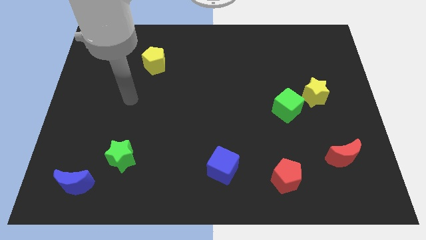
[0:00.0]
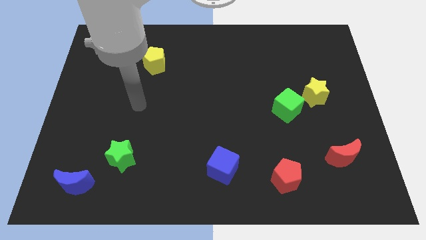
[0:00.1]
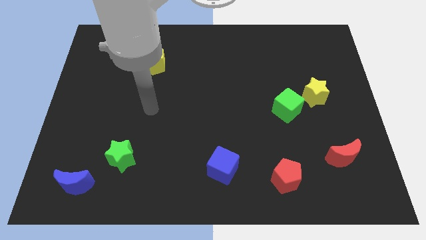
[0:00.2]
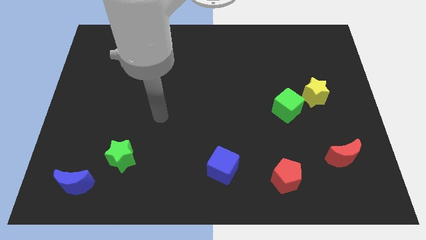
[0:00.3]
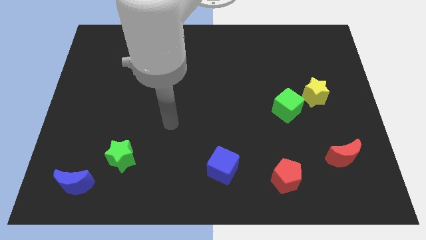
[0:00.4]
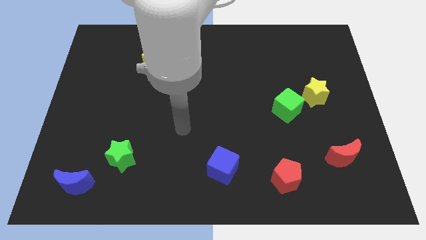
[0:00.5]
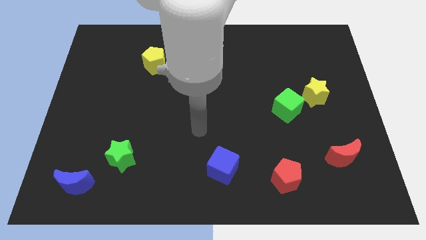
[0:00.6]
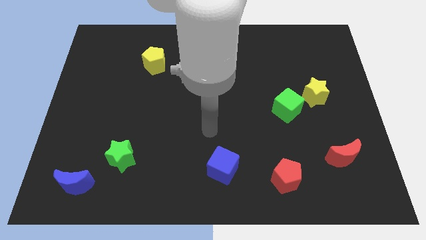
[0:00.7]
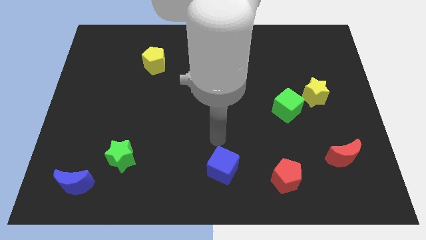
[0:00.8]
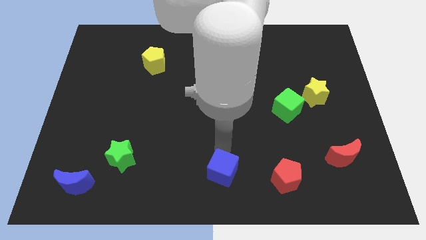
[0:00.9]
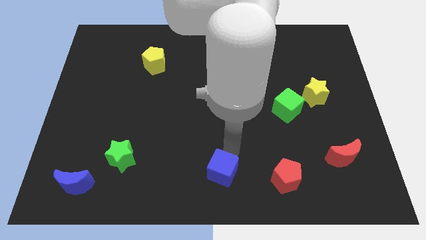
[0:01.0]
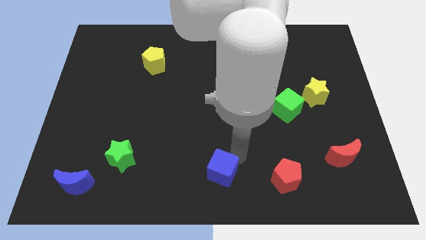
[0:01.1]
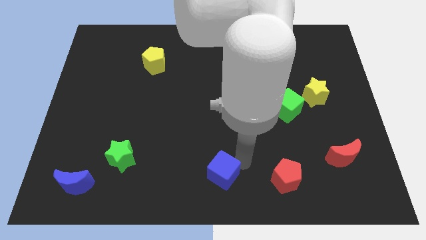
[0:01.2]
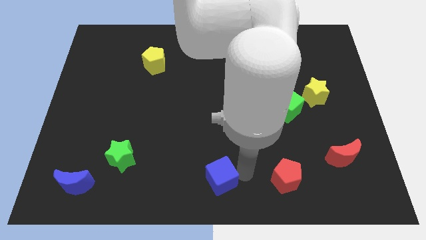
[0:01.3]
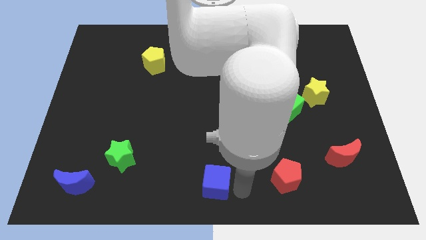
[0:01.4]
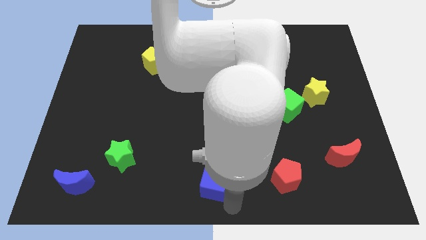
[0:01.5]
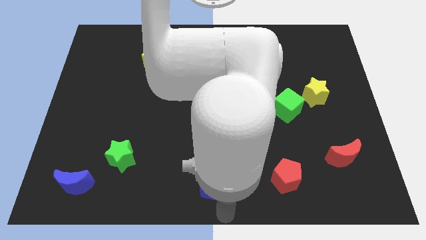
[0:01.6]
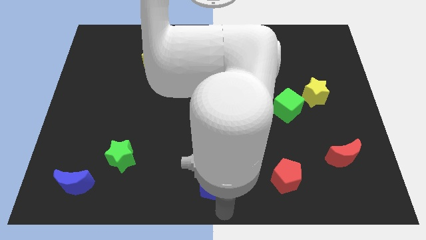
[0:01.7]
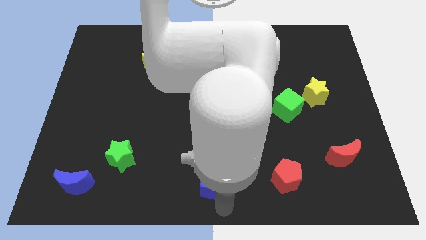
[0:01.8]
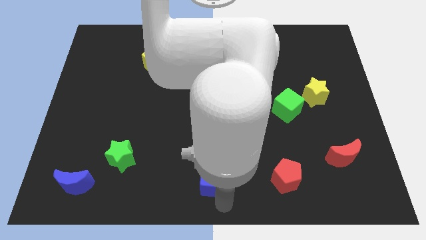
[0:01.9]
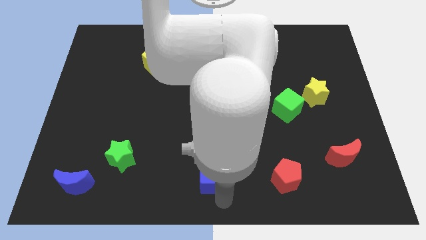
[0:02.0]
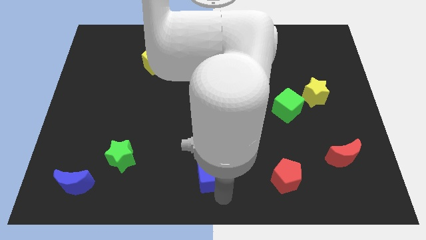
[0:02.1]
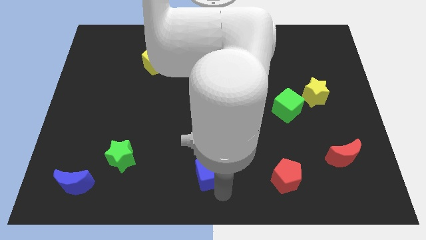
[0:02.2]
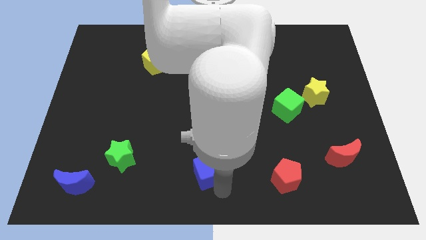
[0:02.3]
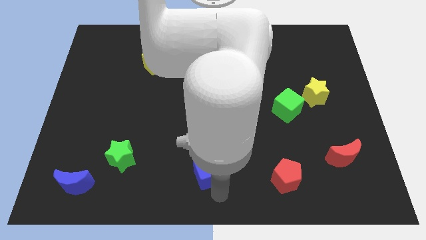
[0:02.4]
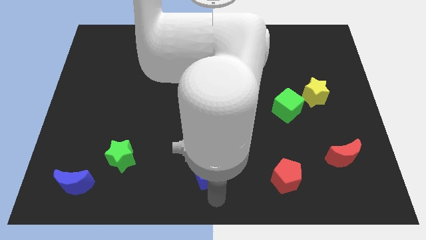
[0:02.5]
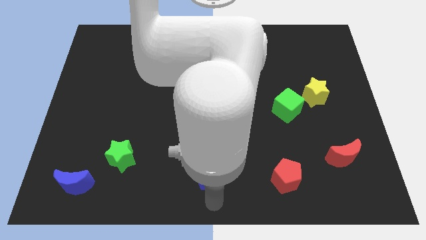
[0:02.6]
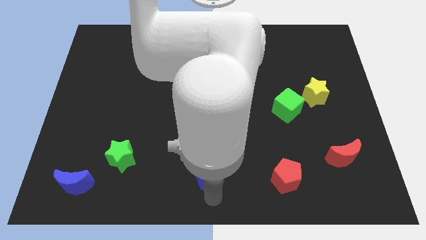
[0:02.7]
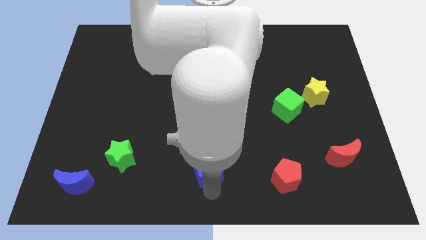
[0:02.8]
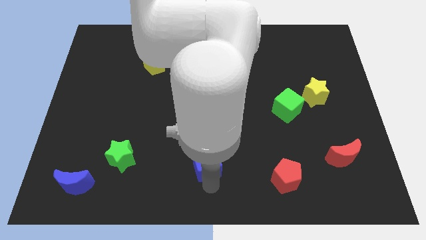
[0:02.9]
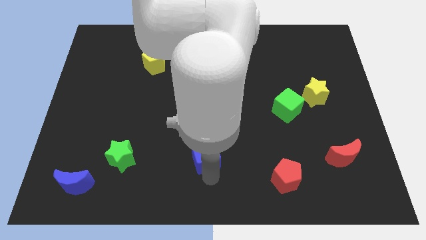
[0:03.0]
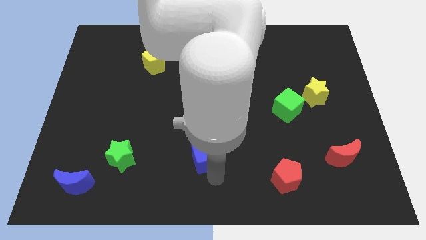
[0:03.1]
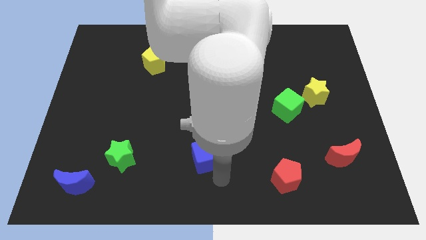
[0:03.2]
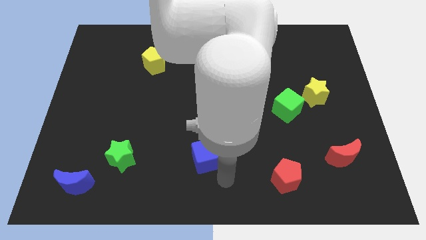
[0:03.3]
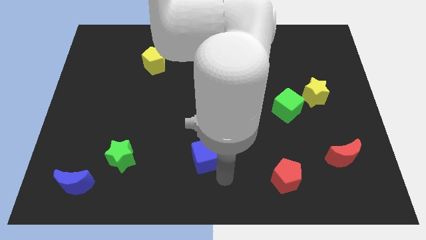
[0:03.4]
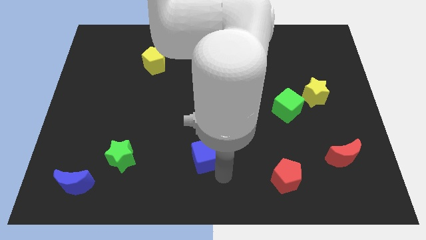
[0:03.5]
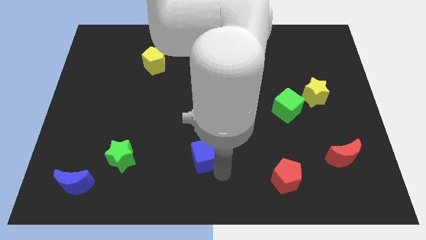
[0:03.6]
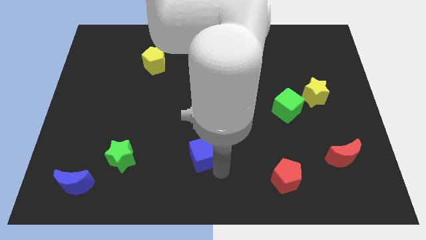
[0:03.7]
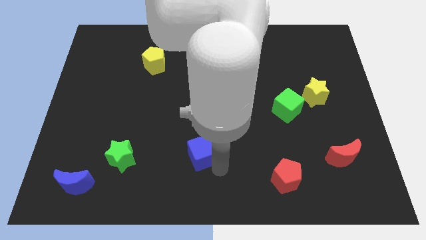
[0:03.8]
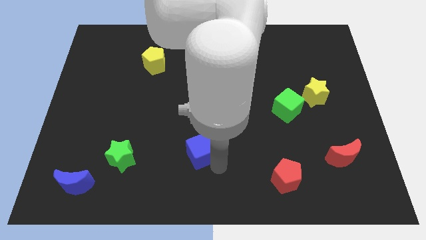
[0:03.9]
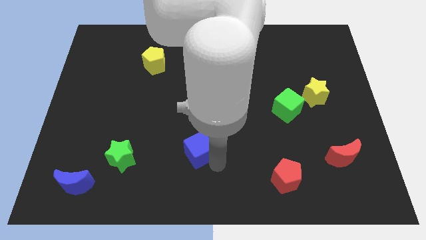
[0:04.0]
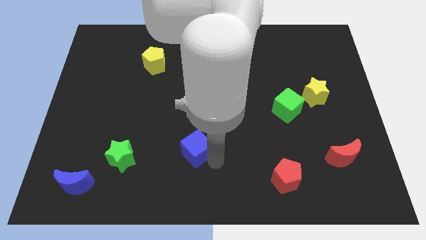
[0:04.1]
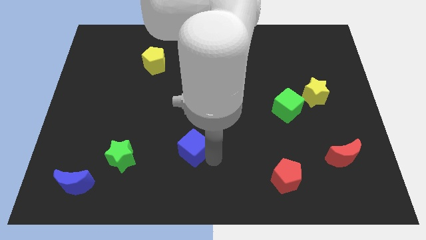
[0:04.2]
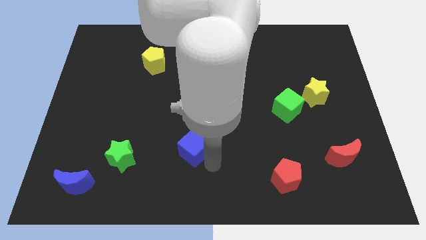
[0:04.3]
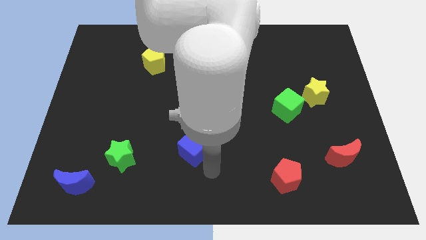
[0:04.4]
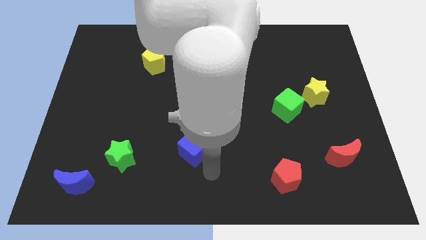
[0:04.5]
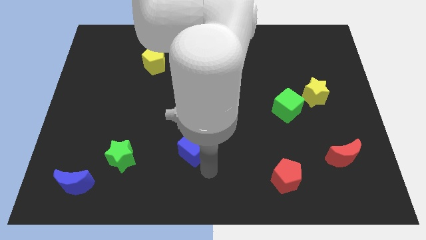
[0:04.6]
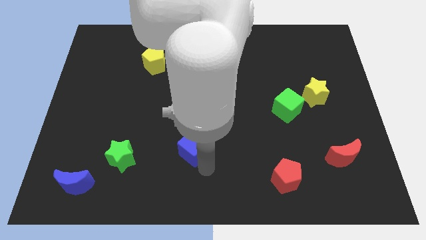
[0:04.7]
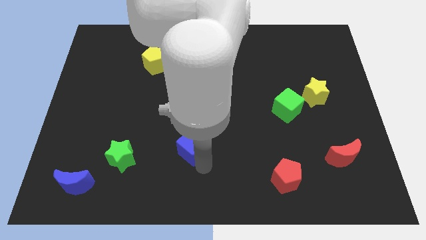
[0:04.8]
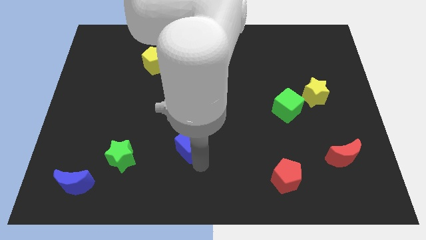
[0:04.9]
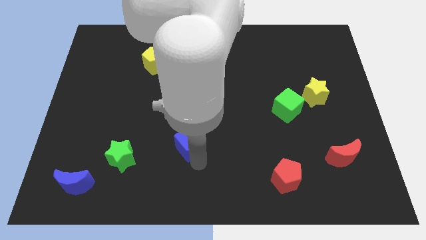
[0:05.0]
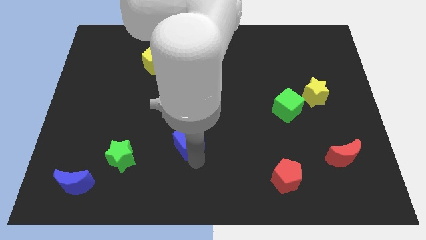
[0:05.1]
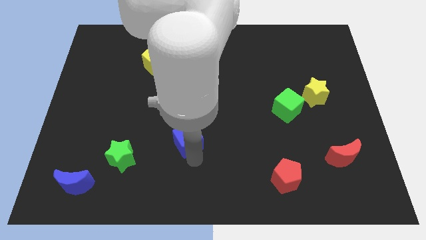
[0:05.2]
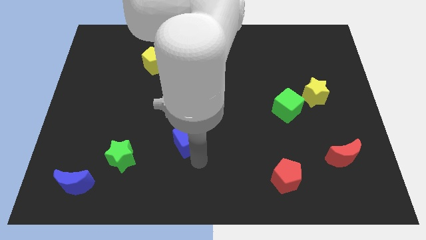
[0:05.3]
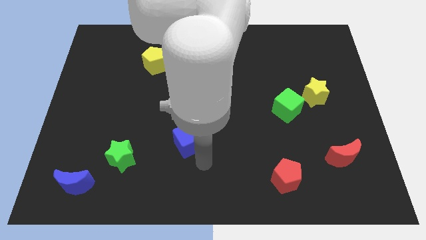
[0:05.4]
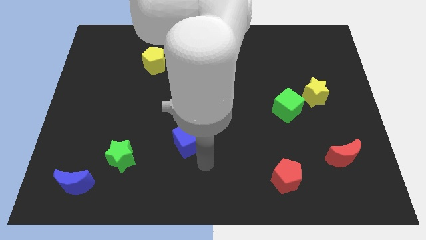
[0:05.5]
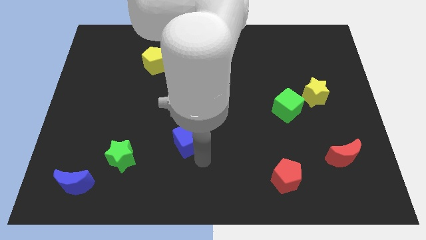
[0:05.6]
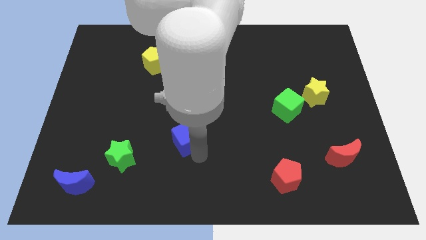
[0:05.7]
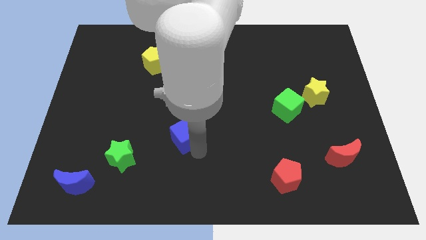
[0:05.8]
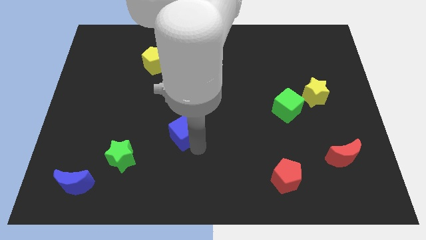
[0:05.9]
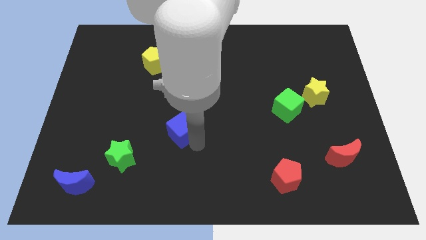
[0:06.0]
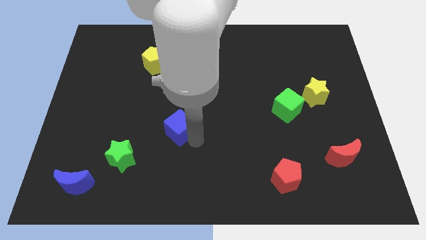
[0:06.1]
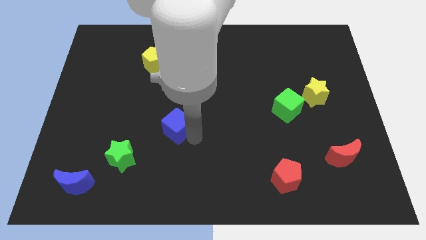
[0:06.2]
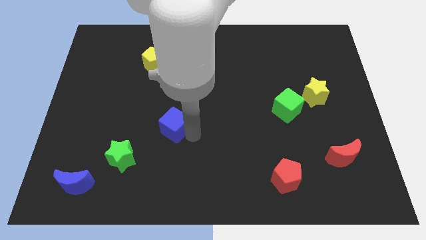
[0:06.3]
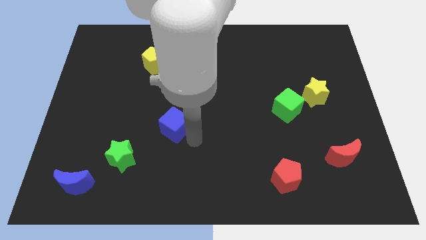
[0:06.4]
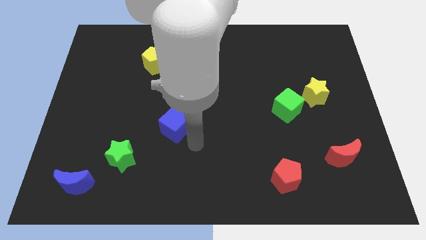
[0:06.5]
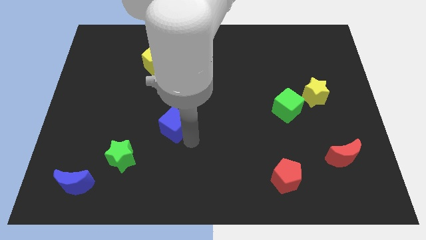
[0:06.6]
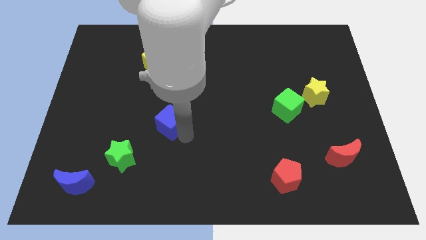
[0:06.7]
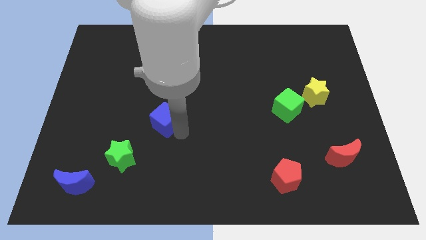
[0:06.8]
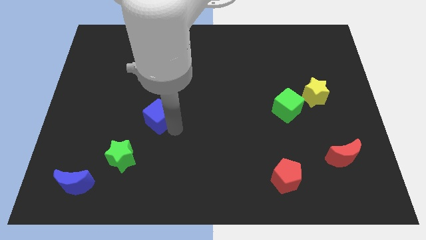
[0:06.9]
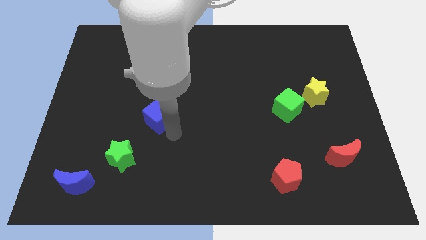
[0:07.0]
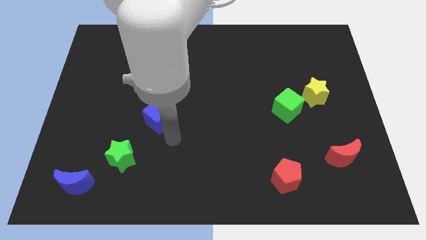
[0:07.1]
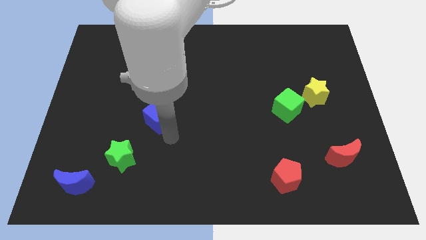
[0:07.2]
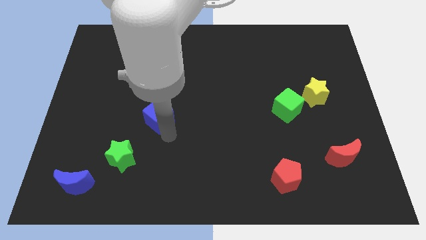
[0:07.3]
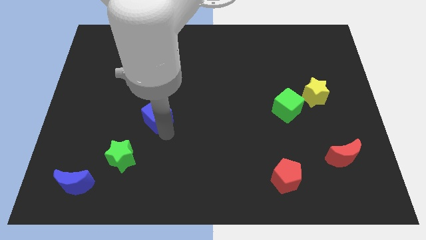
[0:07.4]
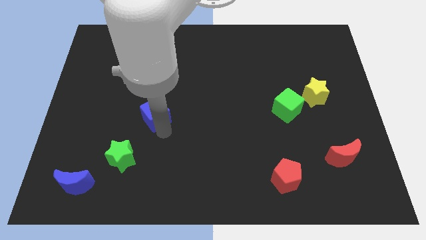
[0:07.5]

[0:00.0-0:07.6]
move the blue cube diagonally up and left

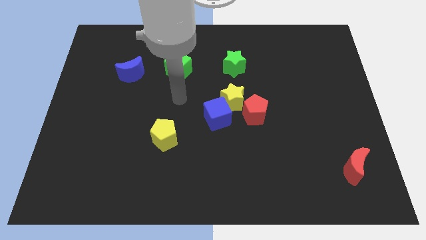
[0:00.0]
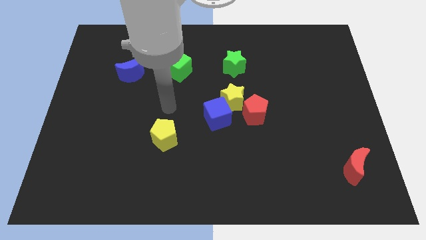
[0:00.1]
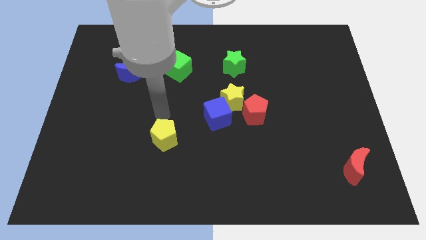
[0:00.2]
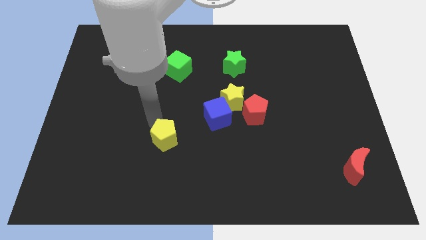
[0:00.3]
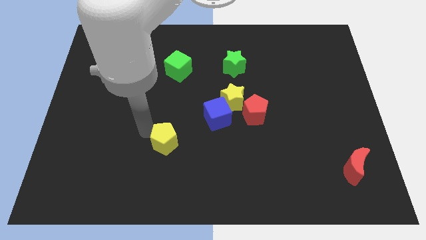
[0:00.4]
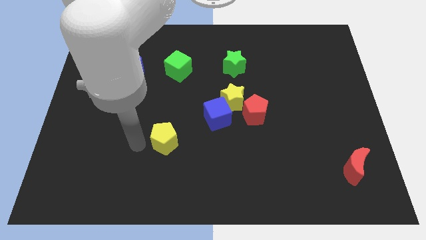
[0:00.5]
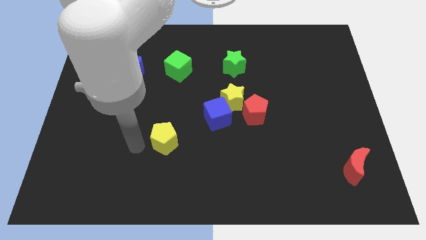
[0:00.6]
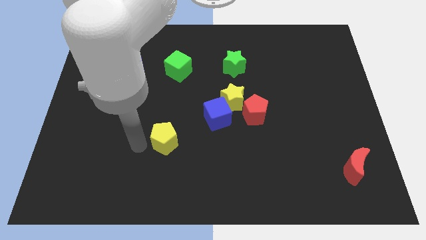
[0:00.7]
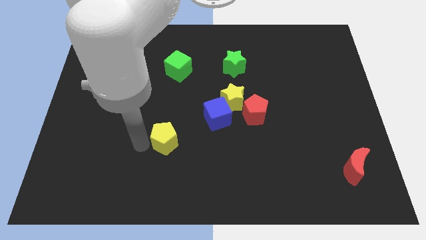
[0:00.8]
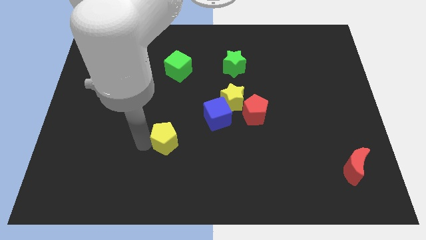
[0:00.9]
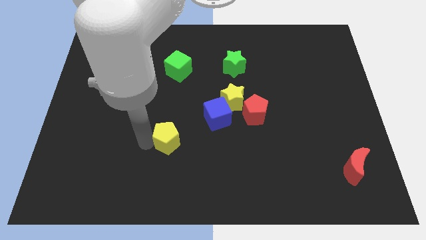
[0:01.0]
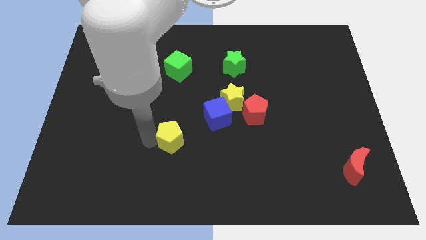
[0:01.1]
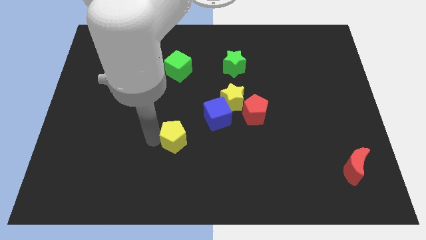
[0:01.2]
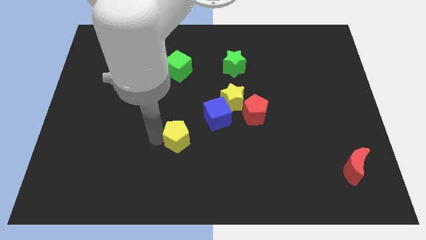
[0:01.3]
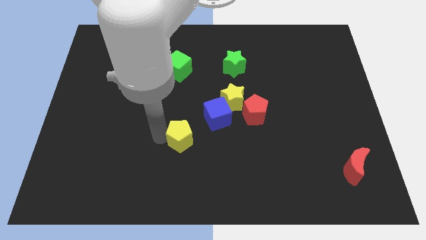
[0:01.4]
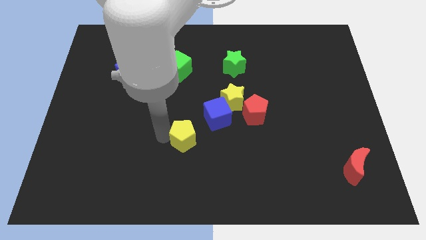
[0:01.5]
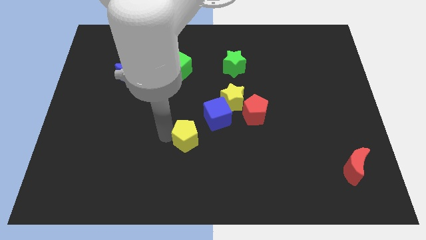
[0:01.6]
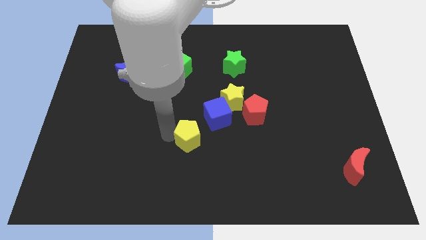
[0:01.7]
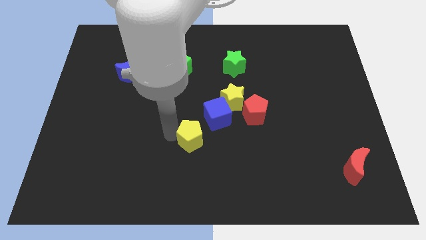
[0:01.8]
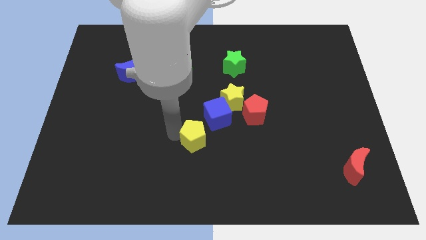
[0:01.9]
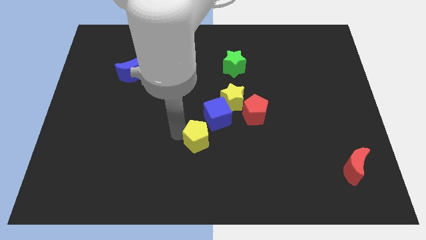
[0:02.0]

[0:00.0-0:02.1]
push the yellow pentagon a little to the right
